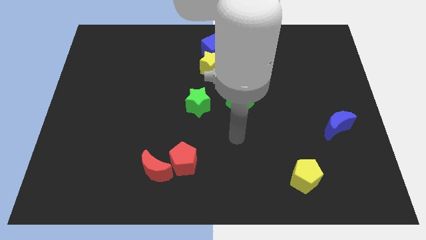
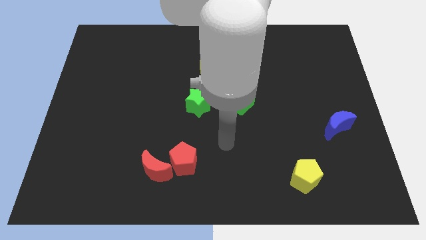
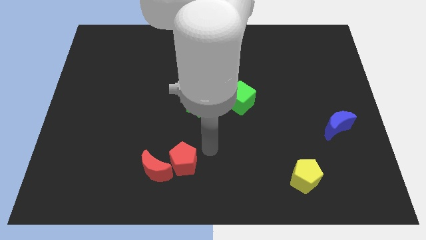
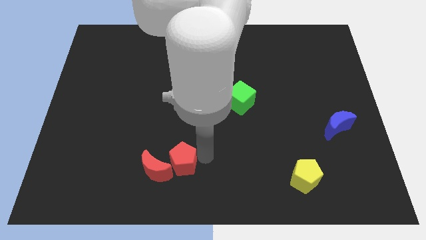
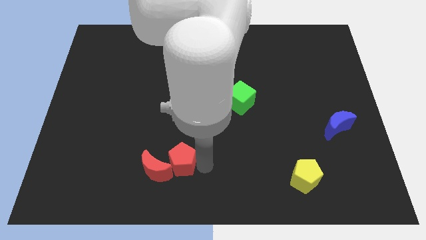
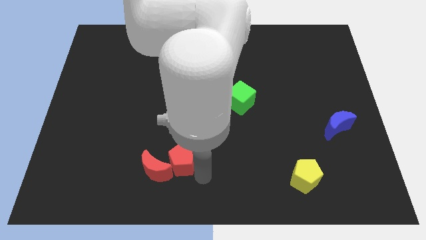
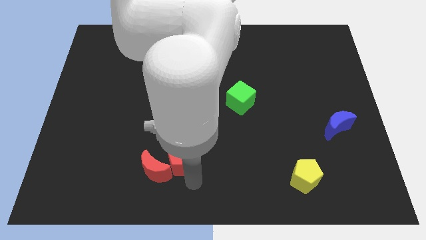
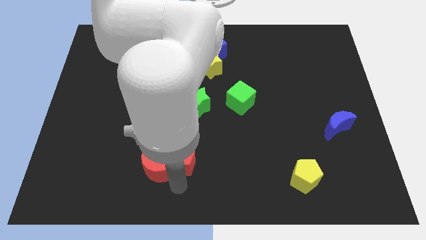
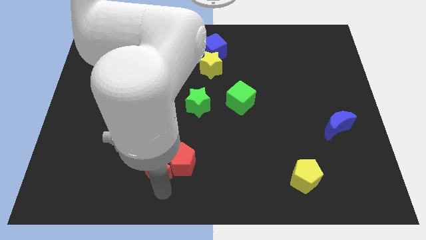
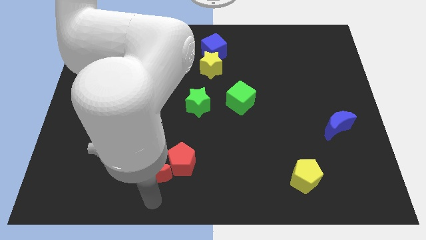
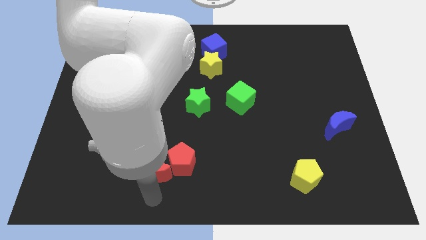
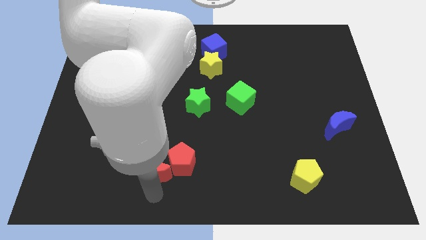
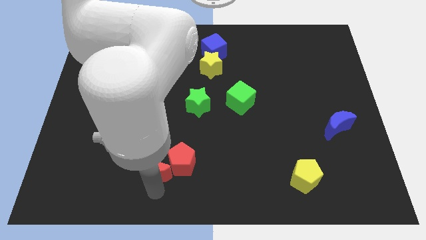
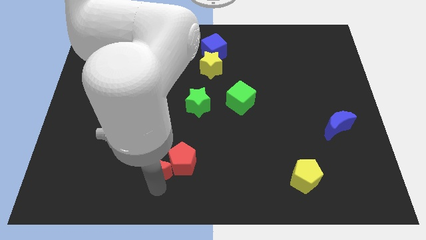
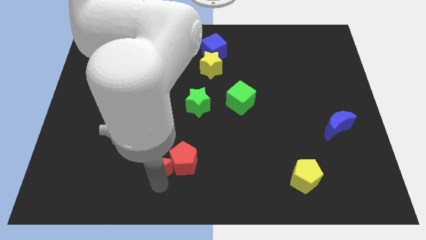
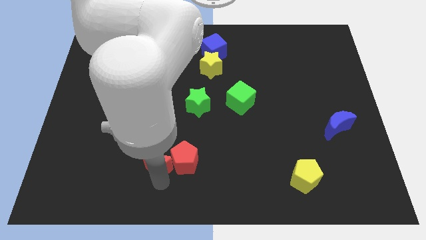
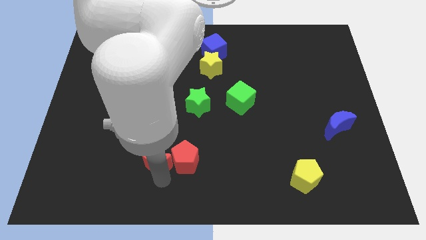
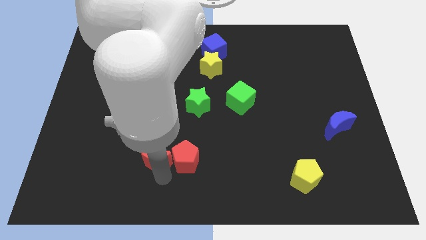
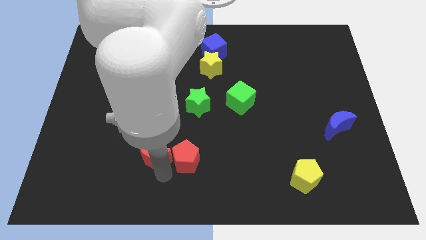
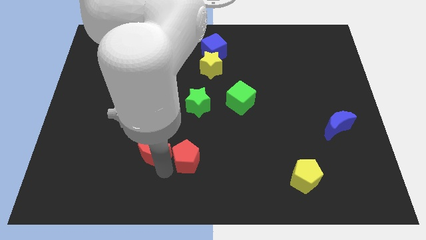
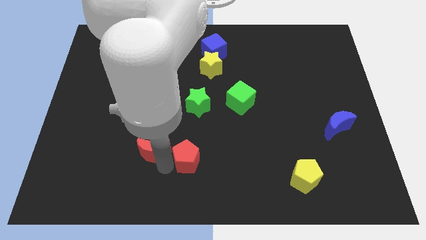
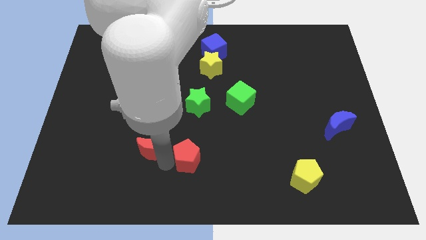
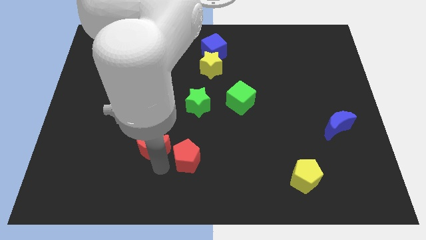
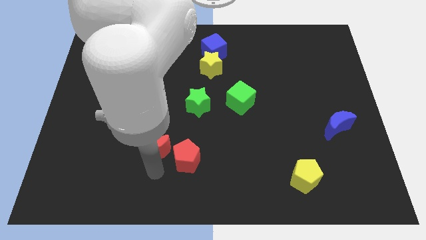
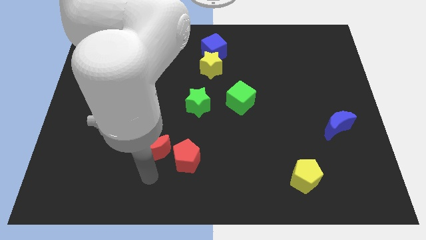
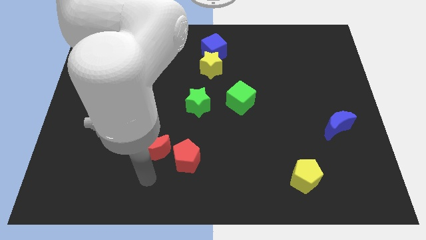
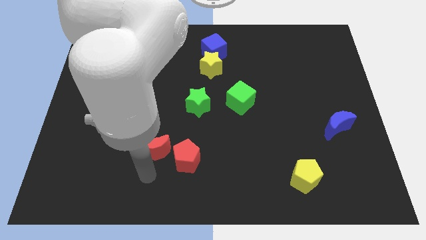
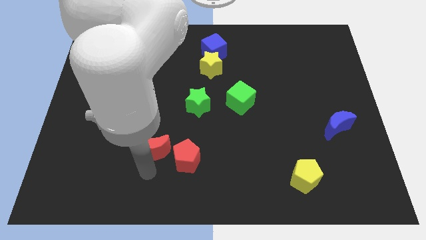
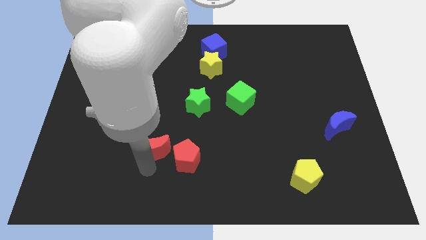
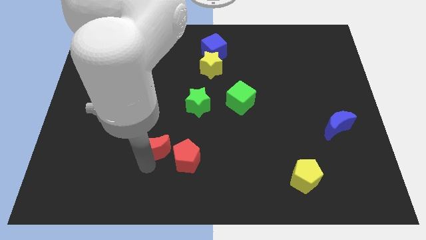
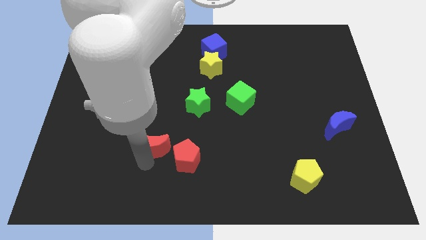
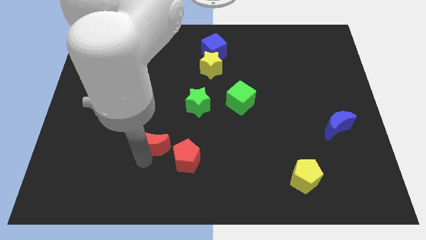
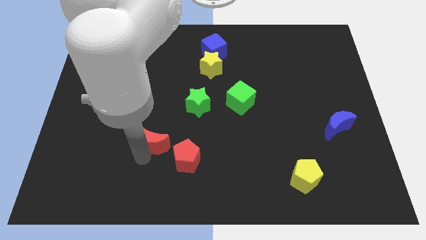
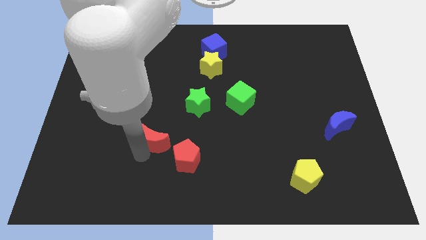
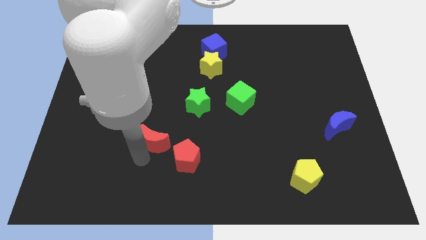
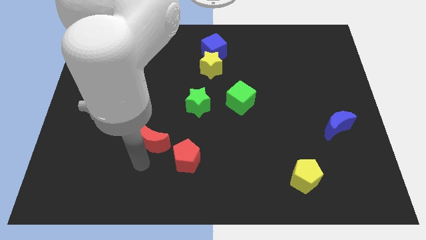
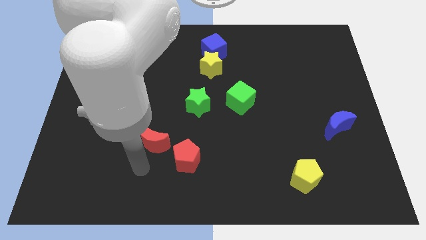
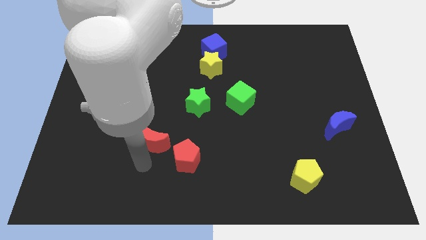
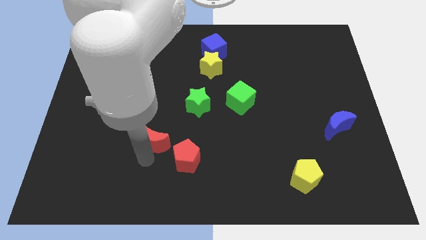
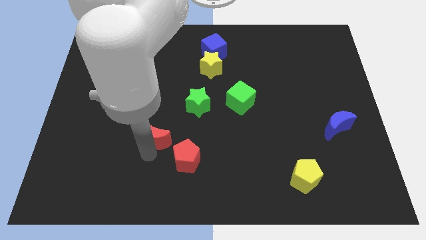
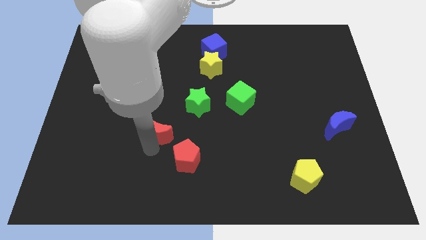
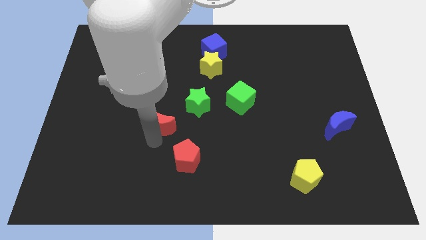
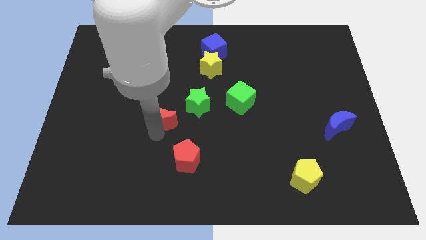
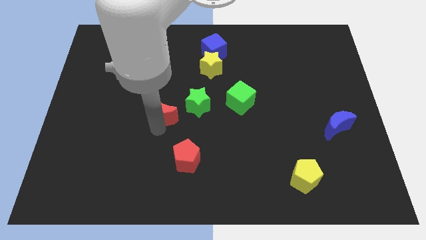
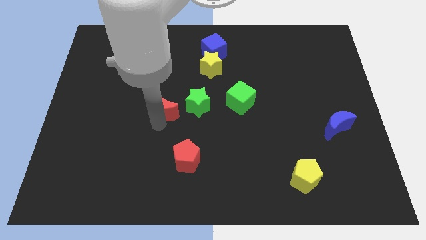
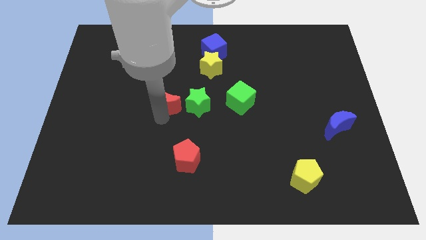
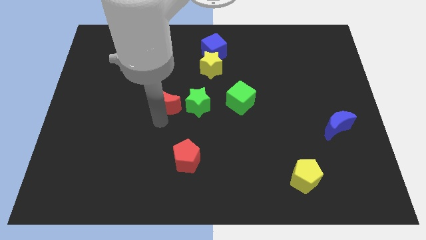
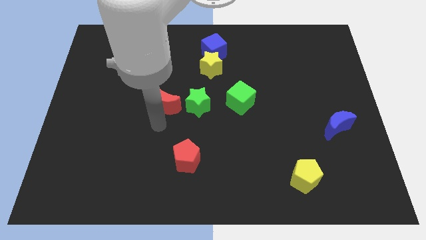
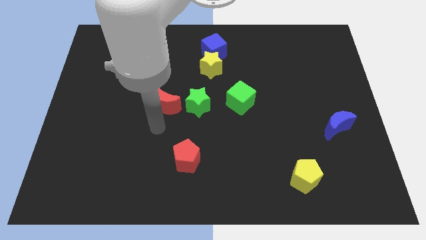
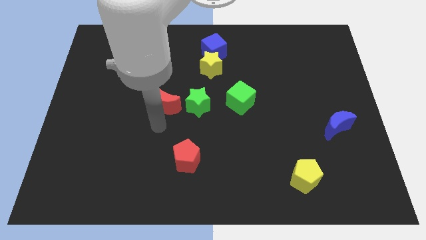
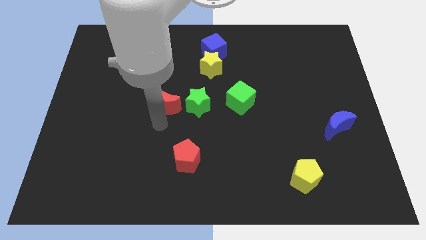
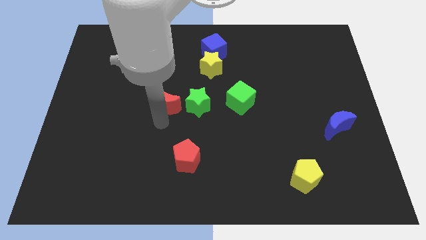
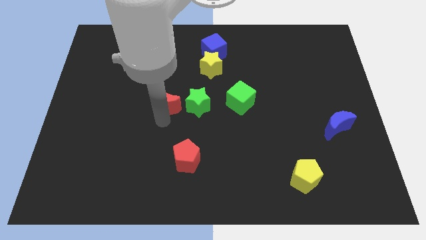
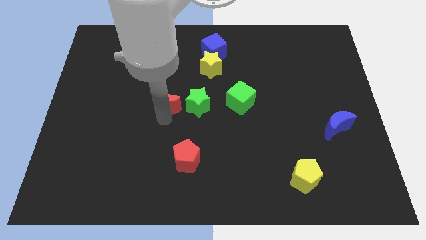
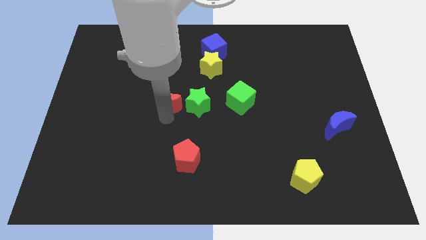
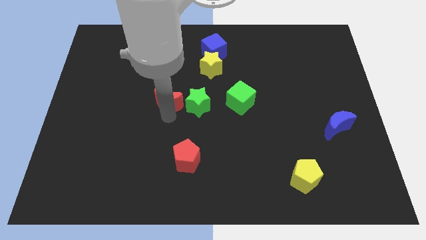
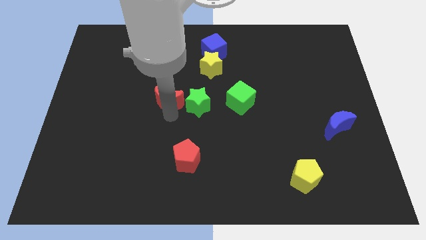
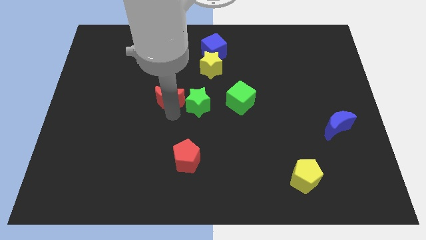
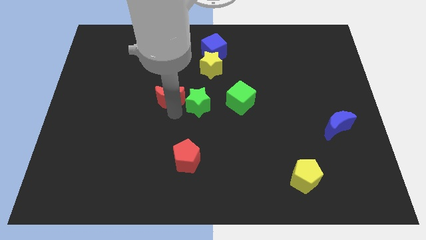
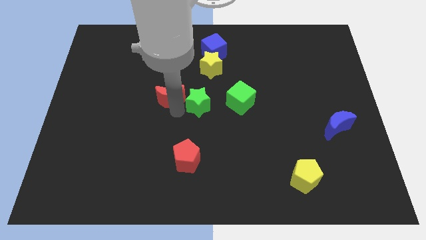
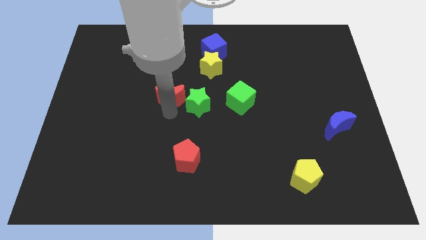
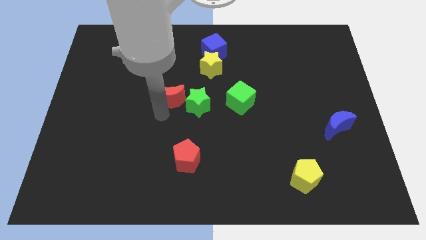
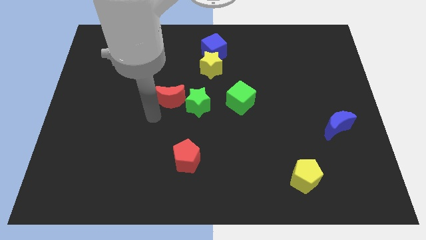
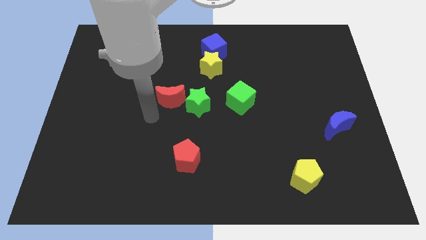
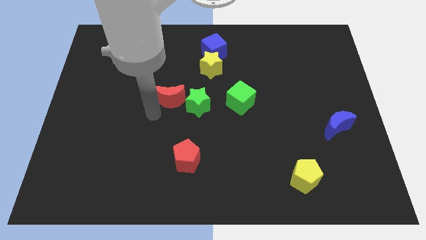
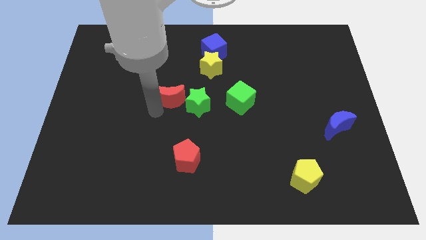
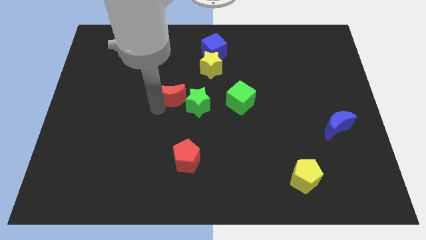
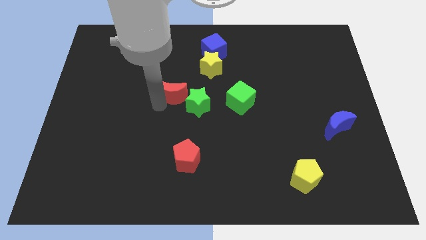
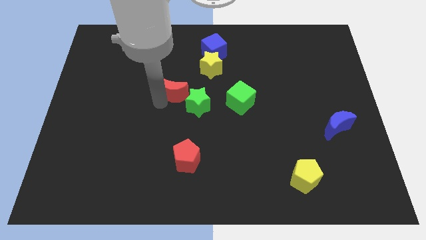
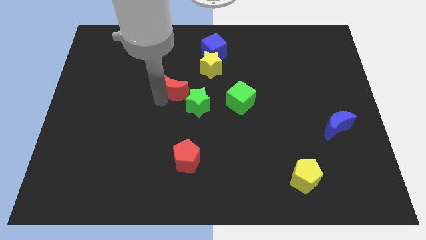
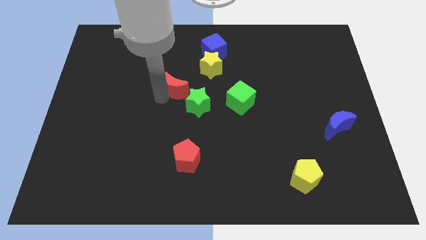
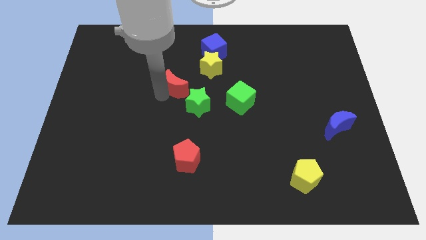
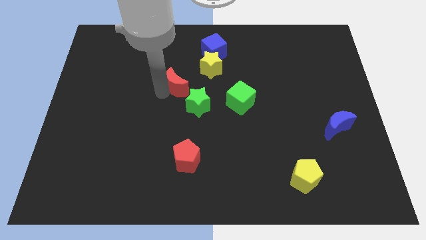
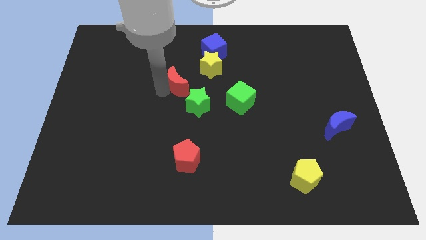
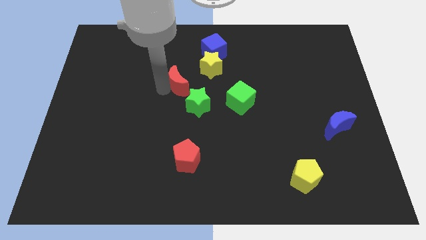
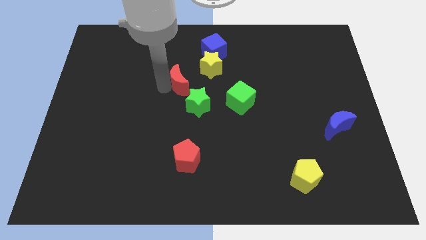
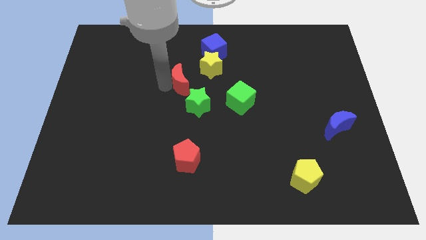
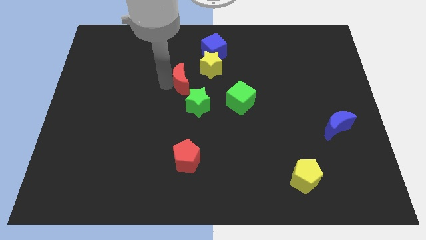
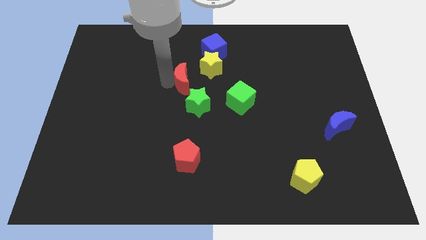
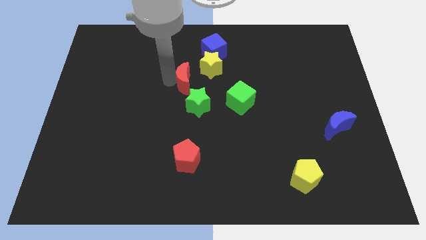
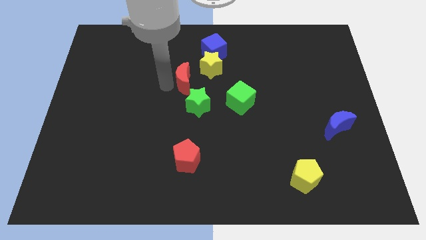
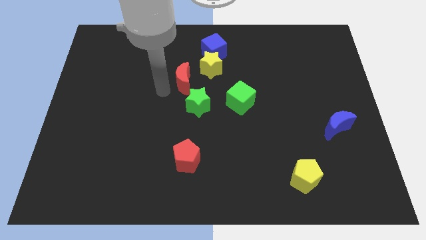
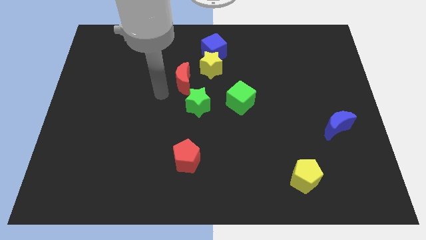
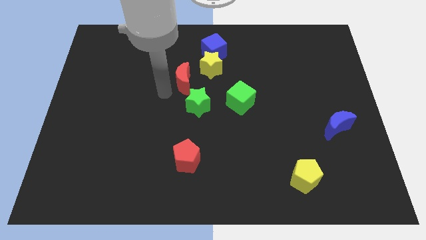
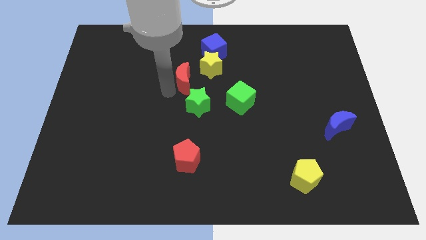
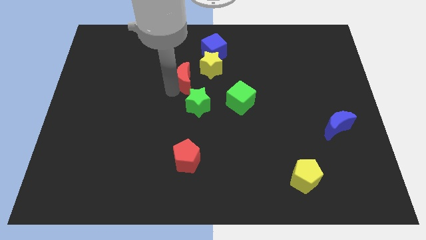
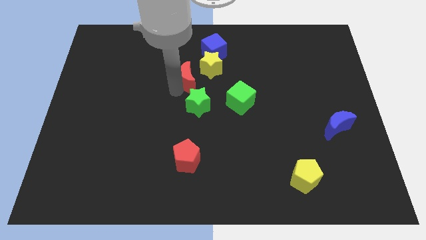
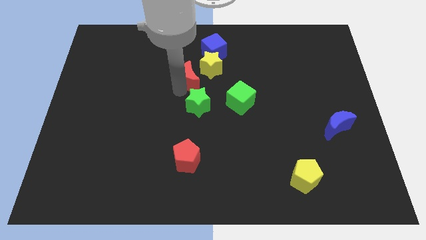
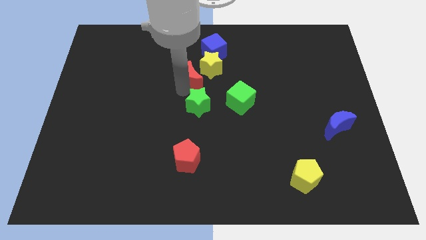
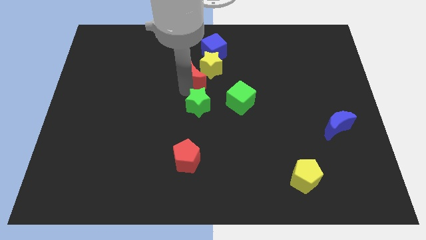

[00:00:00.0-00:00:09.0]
push the red moon close to the yellow star
